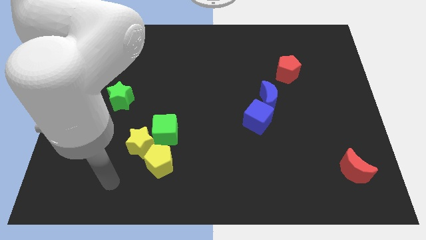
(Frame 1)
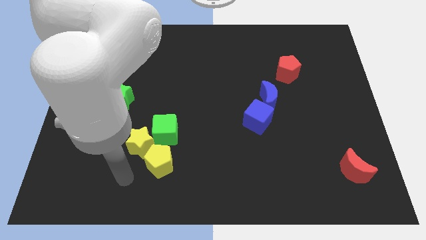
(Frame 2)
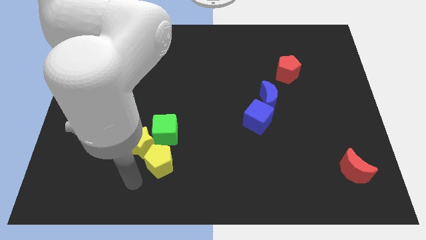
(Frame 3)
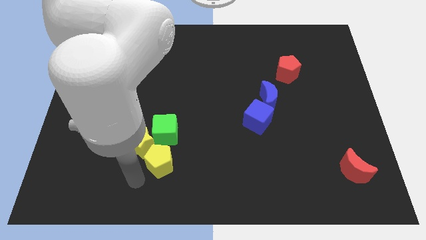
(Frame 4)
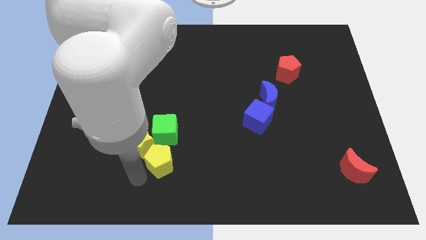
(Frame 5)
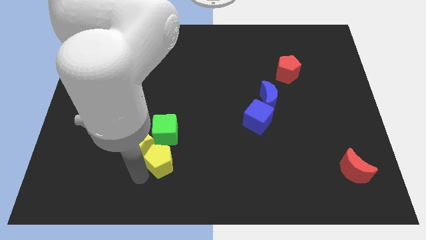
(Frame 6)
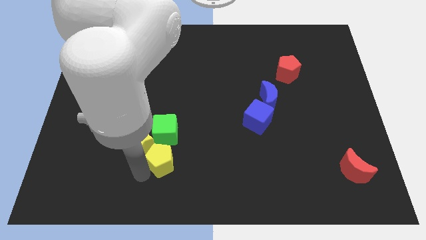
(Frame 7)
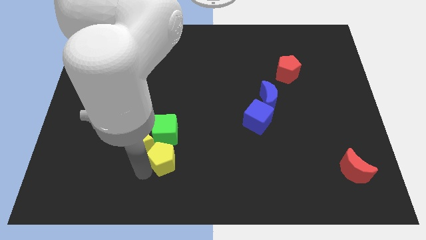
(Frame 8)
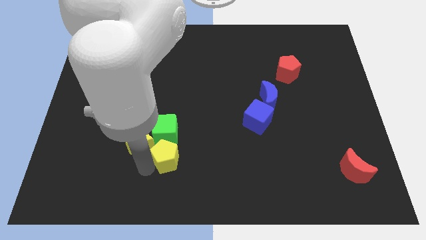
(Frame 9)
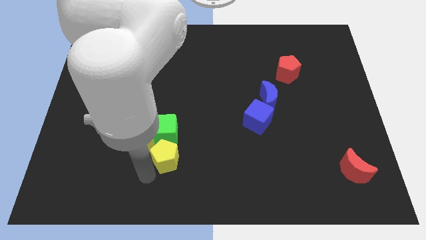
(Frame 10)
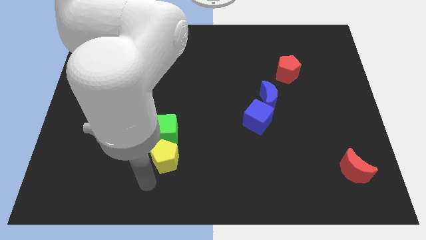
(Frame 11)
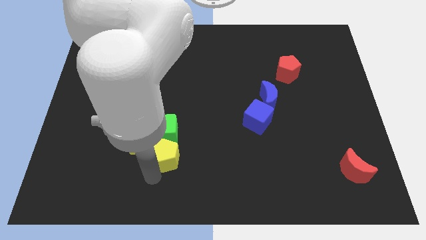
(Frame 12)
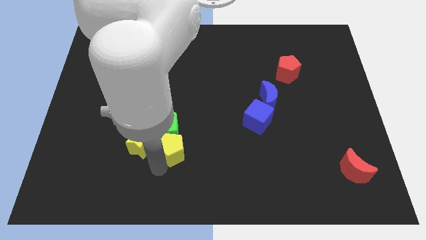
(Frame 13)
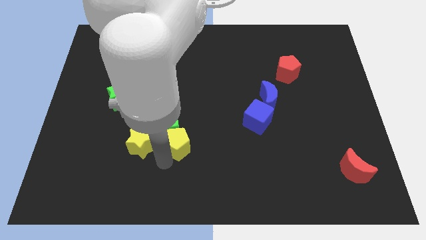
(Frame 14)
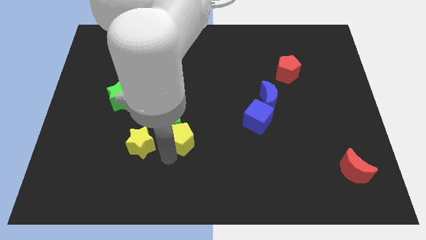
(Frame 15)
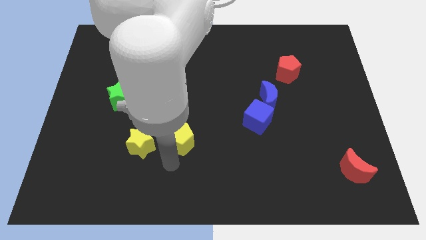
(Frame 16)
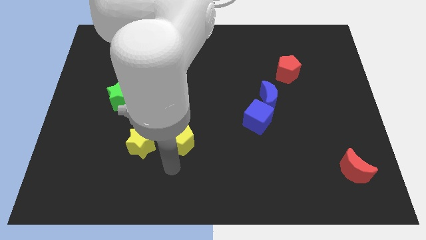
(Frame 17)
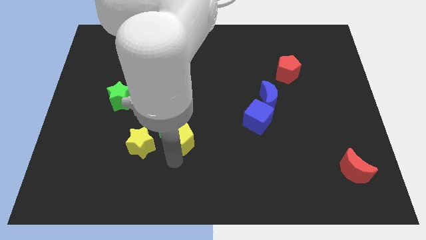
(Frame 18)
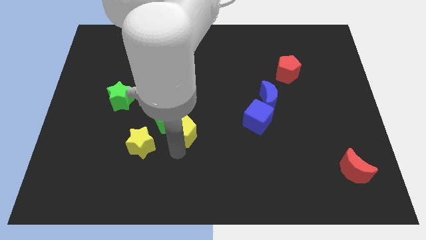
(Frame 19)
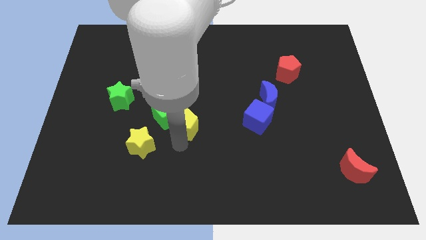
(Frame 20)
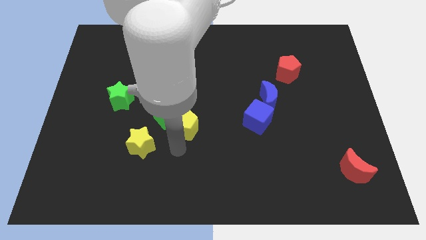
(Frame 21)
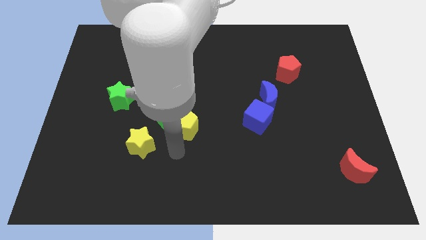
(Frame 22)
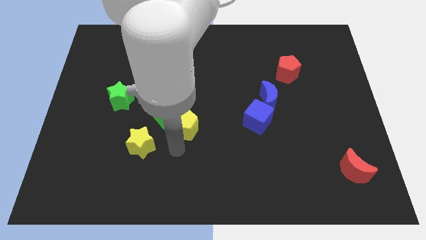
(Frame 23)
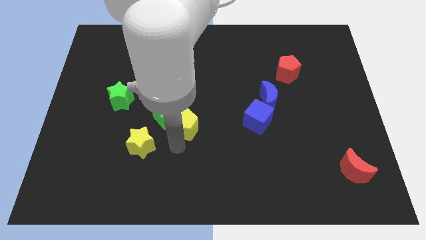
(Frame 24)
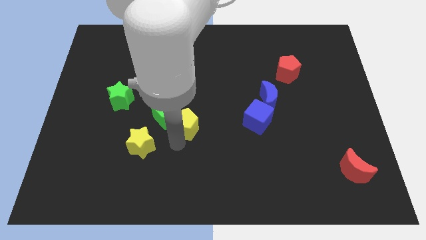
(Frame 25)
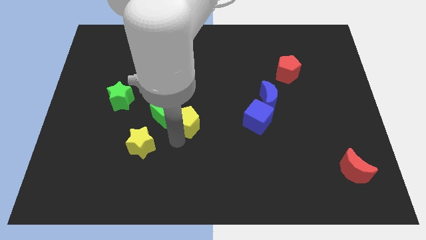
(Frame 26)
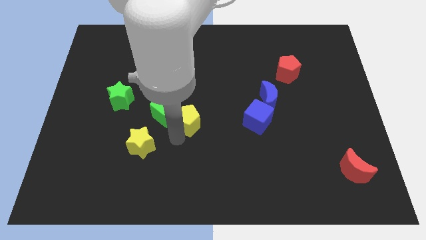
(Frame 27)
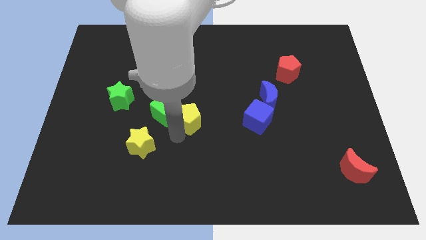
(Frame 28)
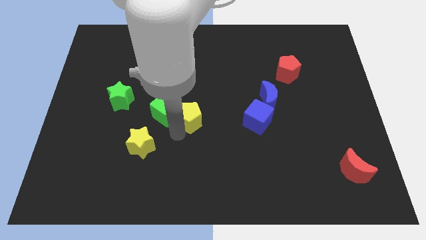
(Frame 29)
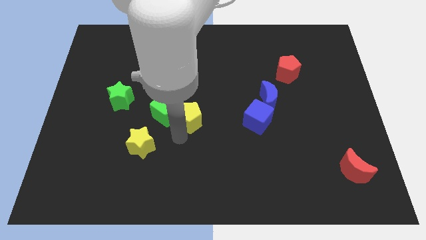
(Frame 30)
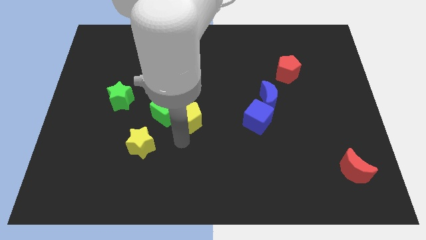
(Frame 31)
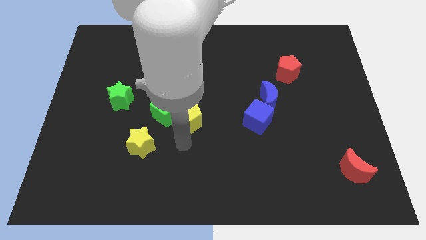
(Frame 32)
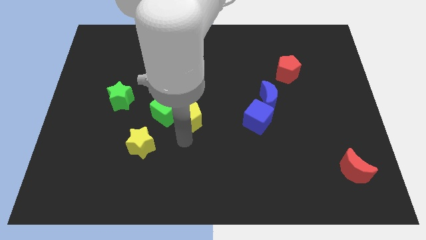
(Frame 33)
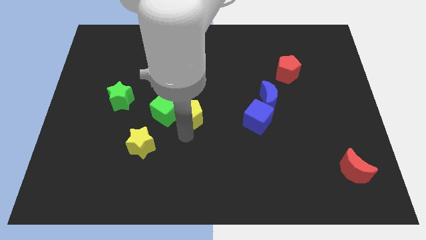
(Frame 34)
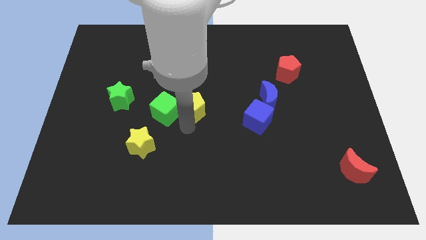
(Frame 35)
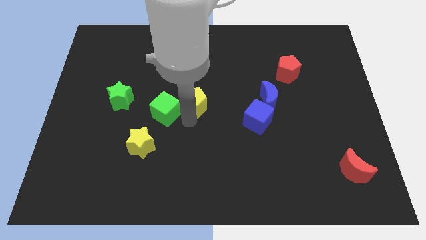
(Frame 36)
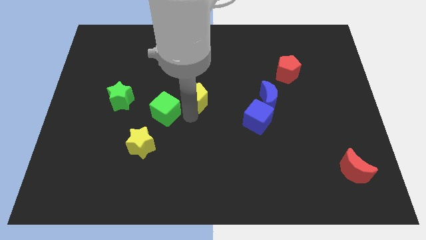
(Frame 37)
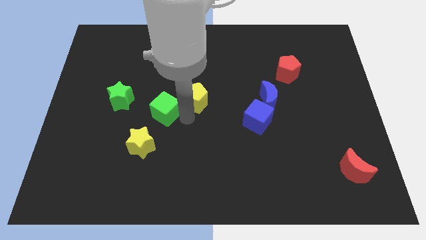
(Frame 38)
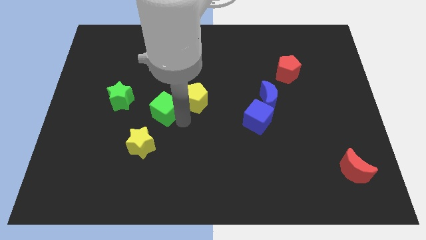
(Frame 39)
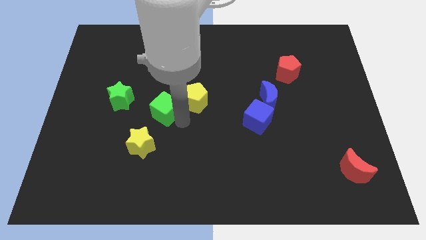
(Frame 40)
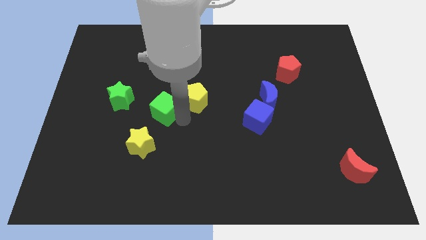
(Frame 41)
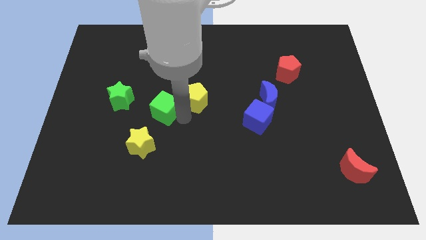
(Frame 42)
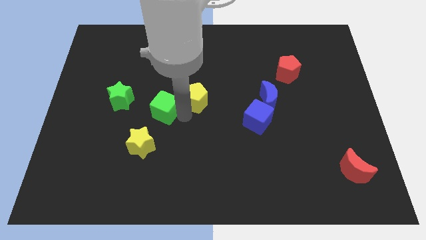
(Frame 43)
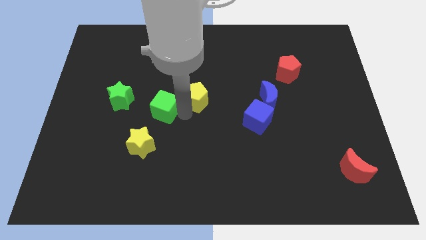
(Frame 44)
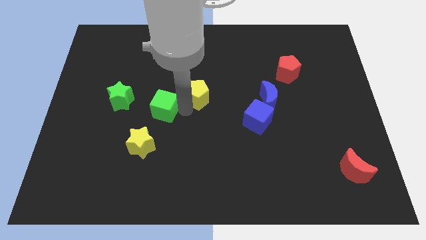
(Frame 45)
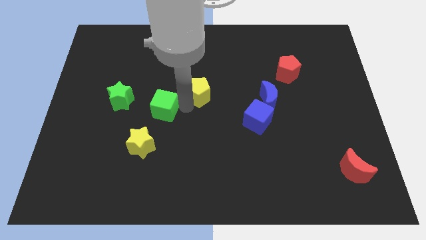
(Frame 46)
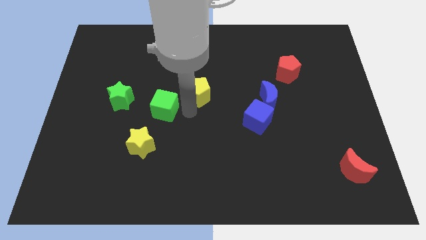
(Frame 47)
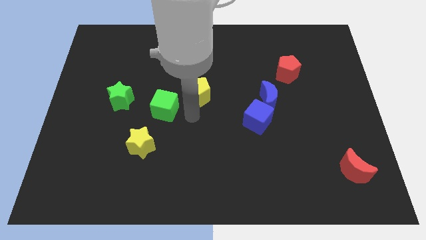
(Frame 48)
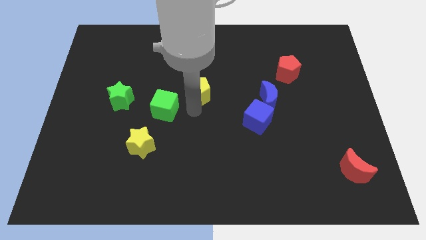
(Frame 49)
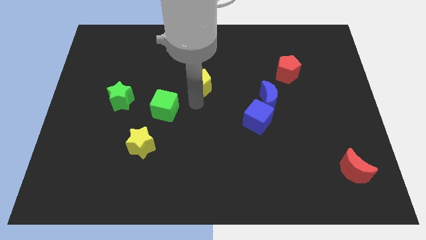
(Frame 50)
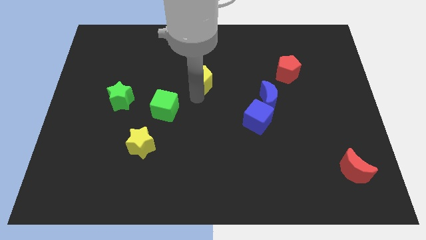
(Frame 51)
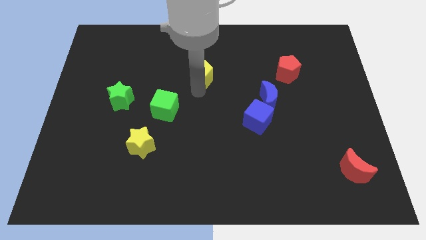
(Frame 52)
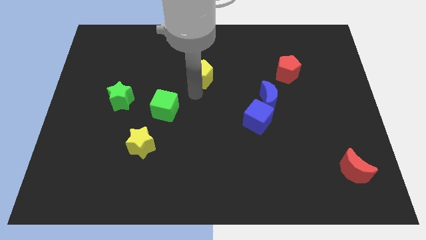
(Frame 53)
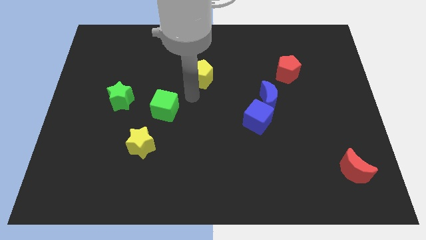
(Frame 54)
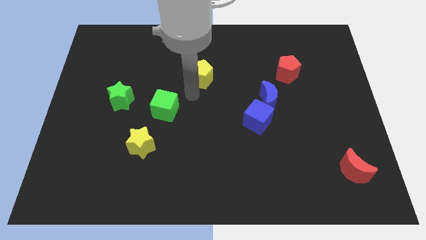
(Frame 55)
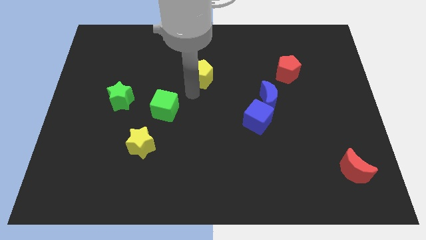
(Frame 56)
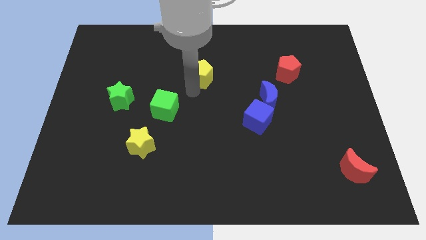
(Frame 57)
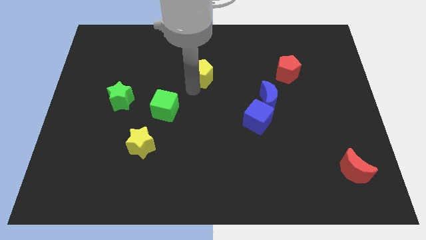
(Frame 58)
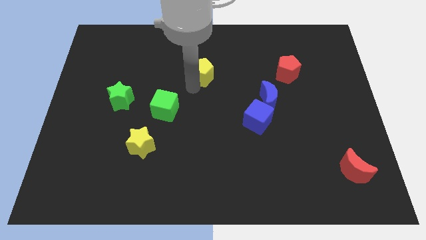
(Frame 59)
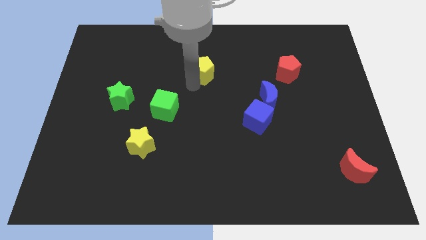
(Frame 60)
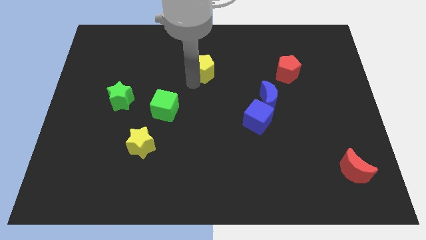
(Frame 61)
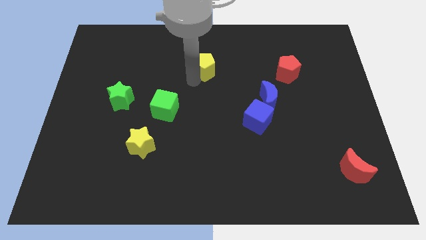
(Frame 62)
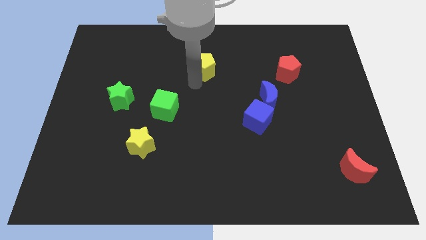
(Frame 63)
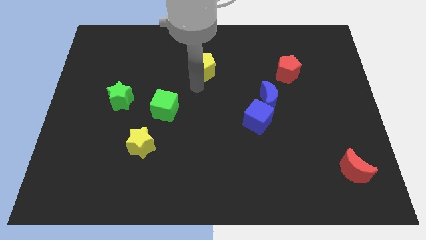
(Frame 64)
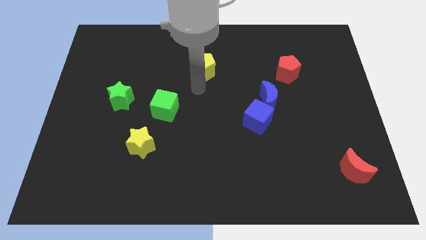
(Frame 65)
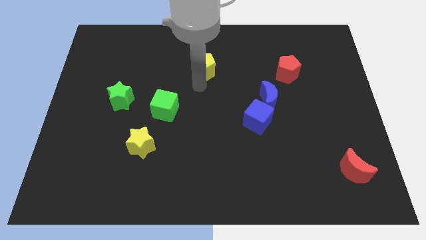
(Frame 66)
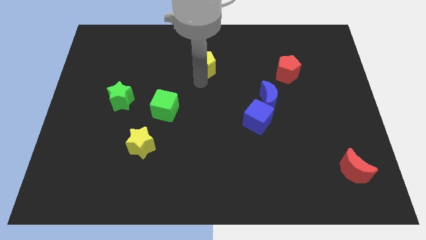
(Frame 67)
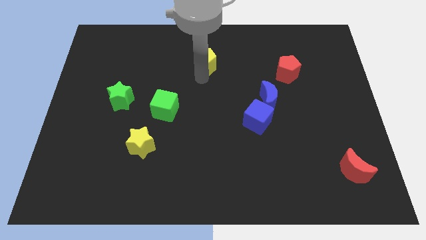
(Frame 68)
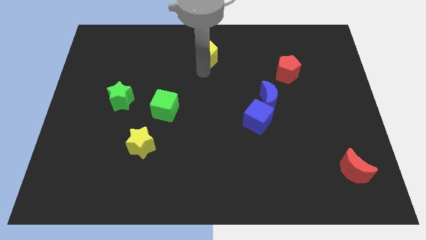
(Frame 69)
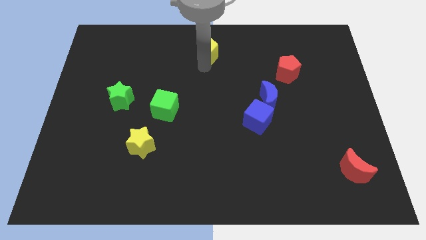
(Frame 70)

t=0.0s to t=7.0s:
move the yellow pentagon to the towards your base
